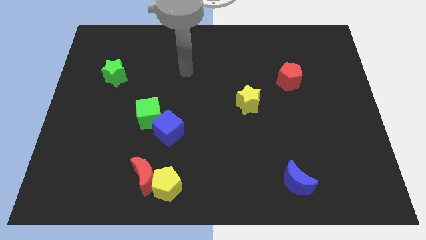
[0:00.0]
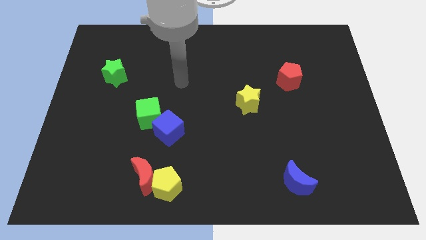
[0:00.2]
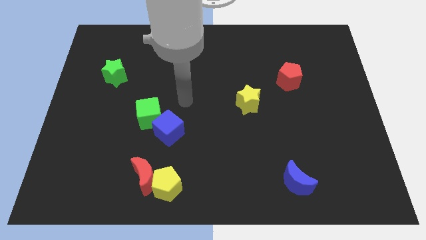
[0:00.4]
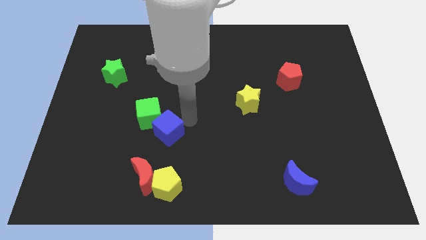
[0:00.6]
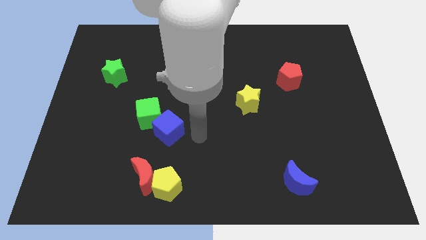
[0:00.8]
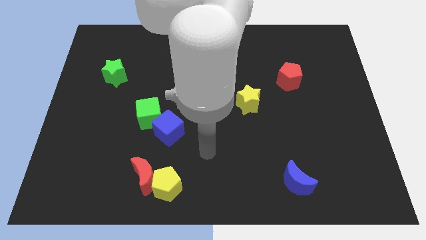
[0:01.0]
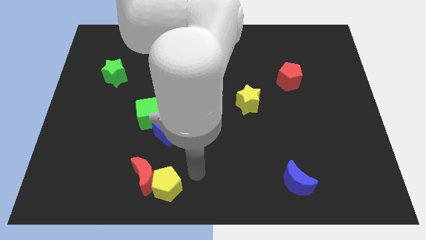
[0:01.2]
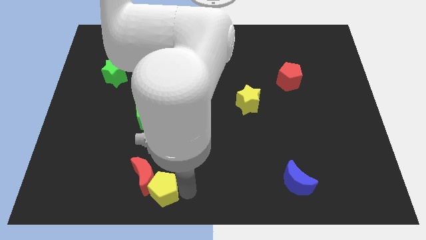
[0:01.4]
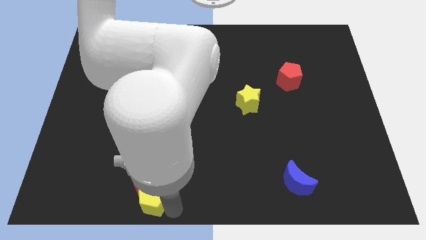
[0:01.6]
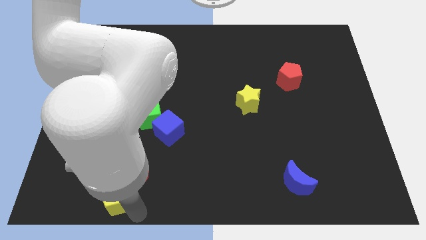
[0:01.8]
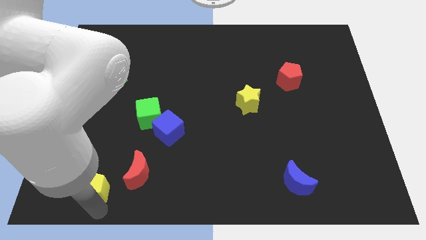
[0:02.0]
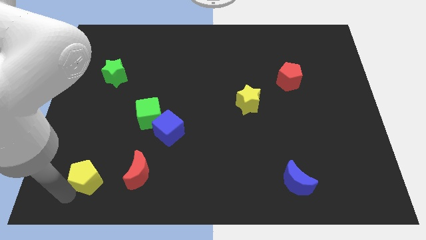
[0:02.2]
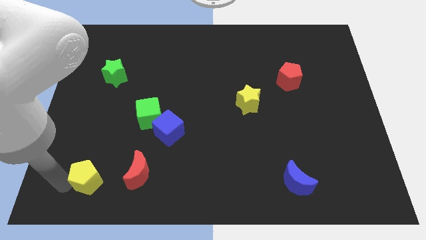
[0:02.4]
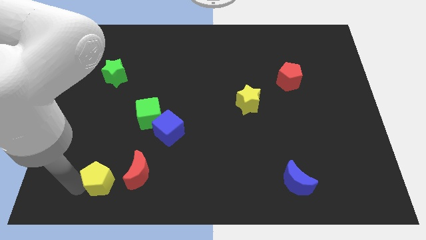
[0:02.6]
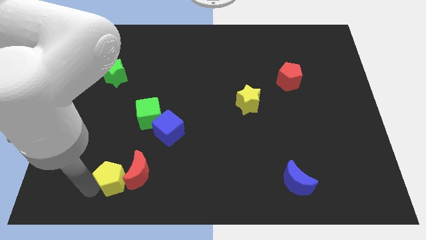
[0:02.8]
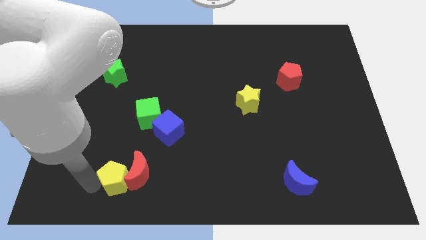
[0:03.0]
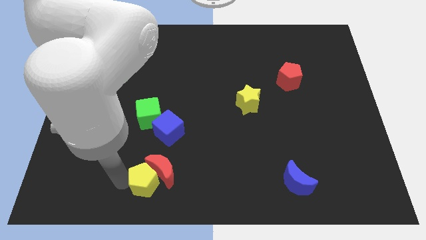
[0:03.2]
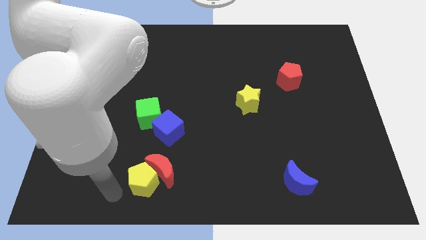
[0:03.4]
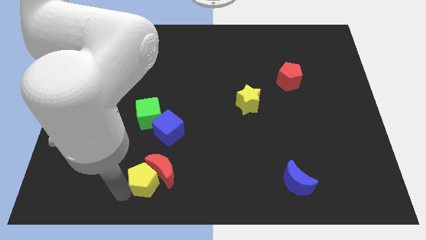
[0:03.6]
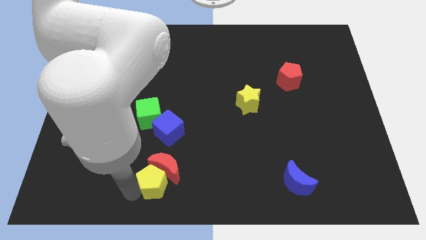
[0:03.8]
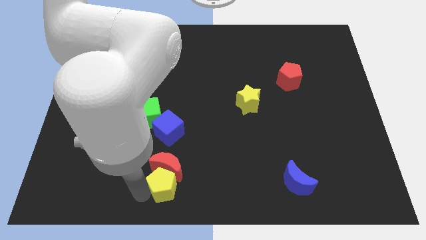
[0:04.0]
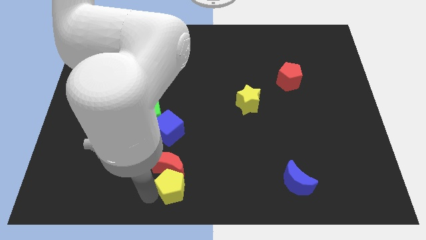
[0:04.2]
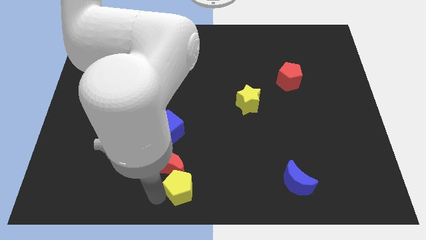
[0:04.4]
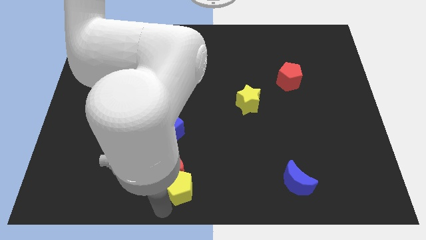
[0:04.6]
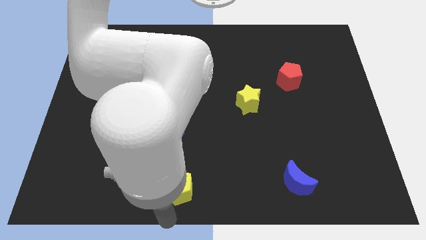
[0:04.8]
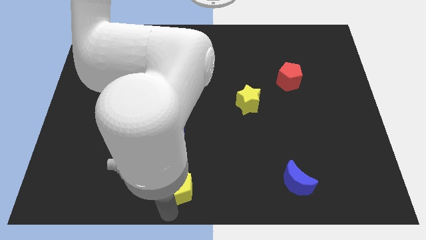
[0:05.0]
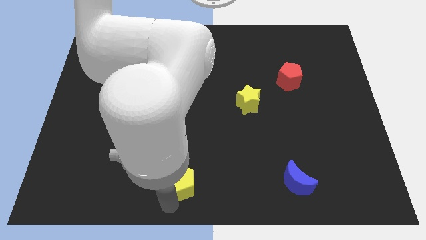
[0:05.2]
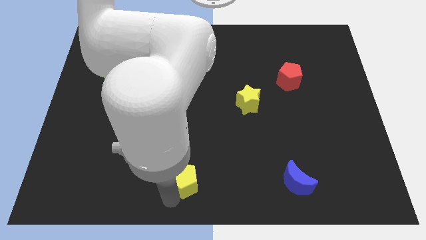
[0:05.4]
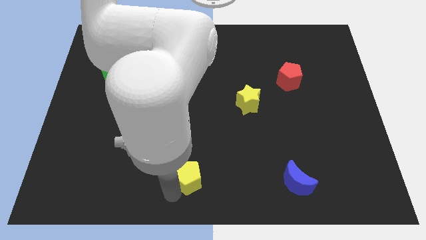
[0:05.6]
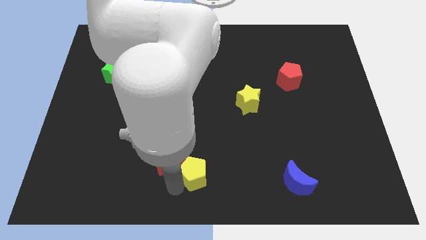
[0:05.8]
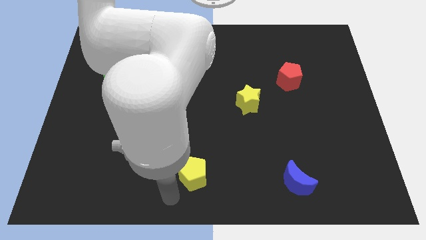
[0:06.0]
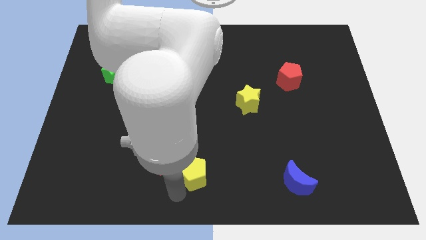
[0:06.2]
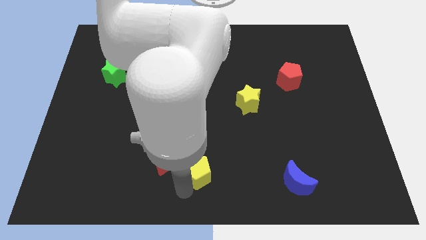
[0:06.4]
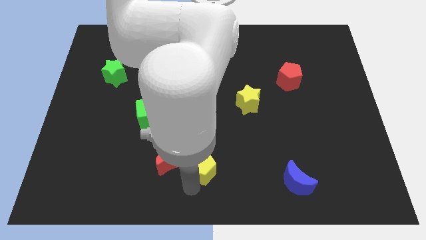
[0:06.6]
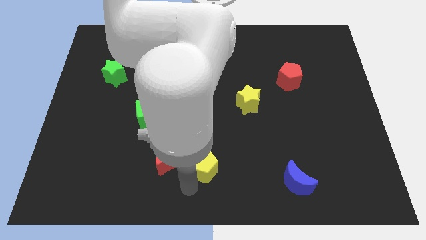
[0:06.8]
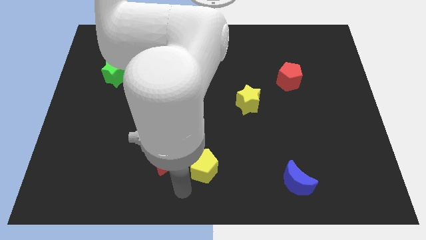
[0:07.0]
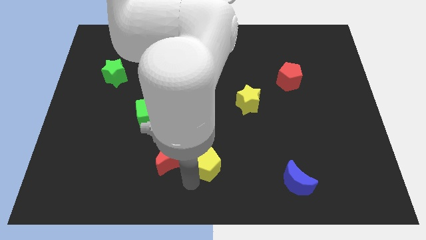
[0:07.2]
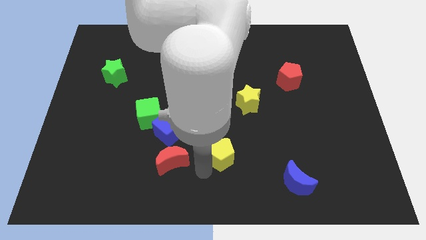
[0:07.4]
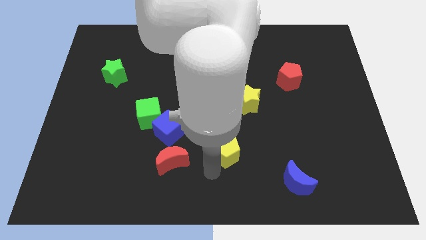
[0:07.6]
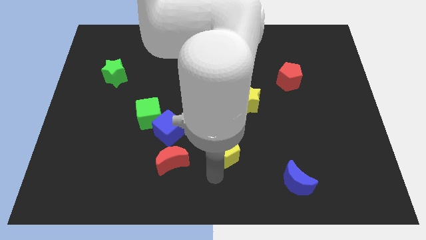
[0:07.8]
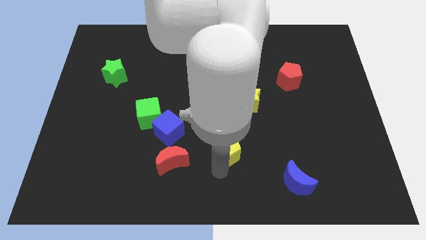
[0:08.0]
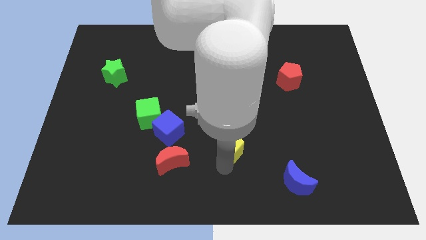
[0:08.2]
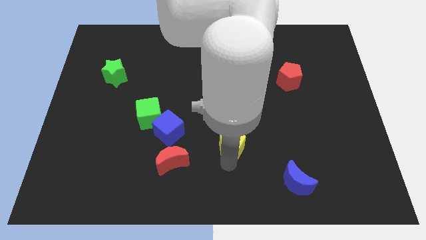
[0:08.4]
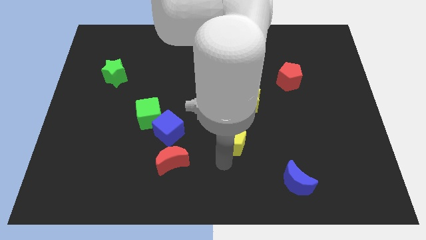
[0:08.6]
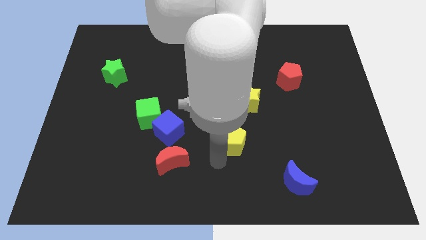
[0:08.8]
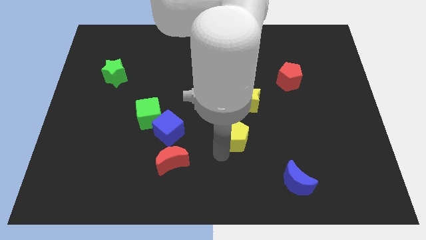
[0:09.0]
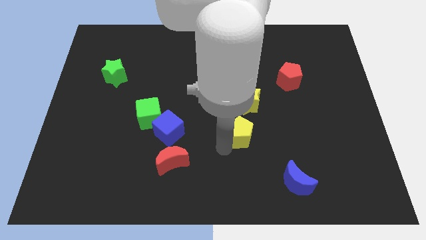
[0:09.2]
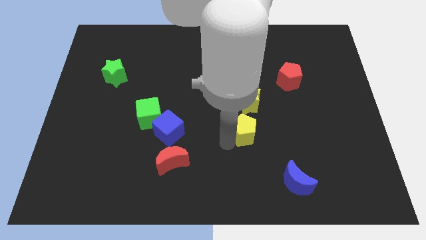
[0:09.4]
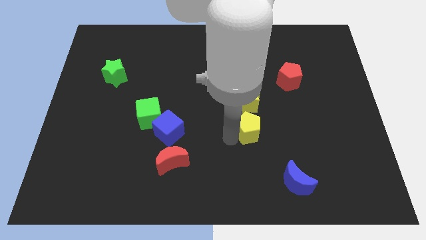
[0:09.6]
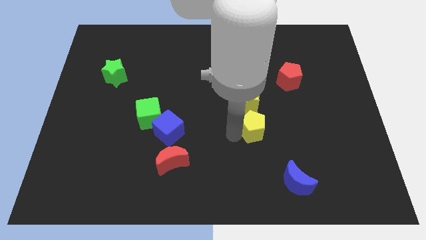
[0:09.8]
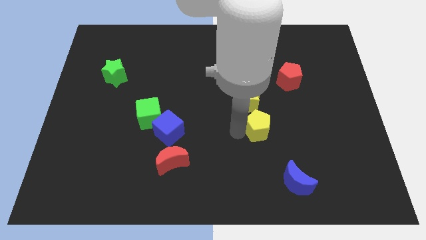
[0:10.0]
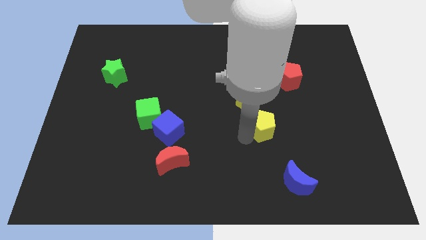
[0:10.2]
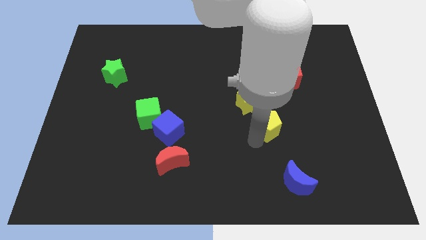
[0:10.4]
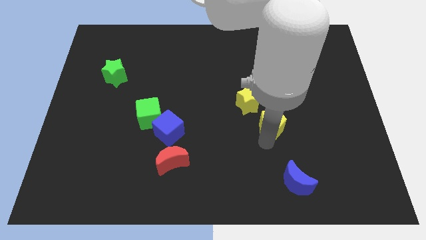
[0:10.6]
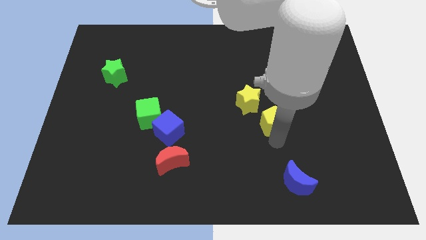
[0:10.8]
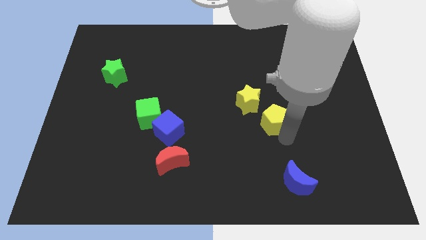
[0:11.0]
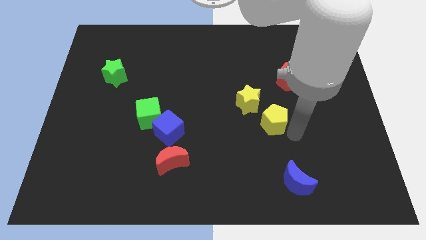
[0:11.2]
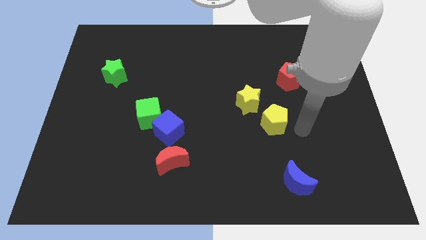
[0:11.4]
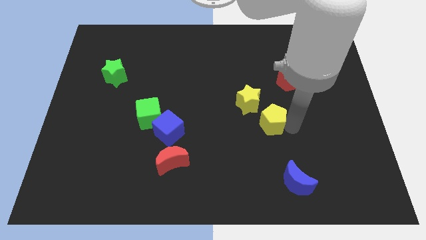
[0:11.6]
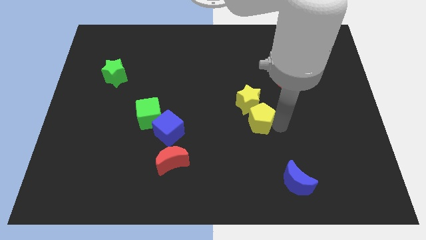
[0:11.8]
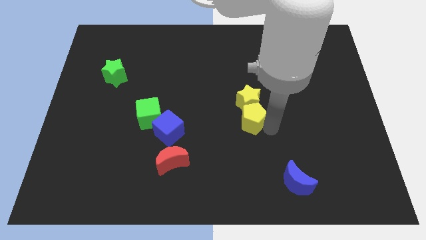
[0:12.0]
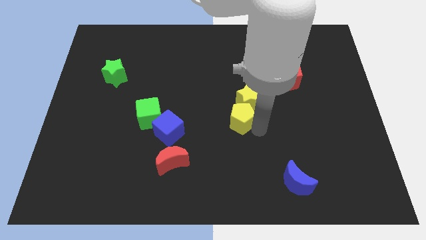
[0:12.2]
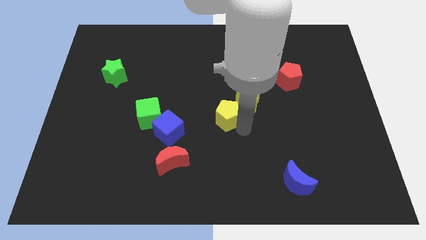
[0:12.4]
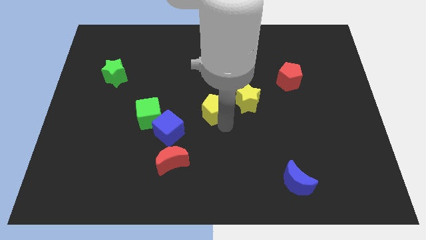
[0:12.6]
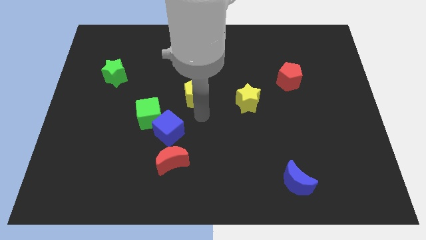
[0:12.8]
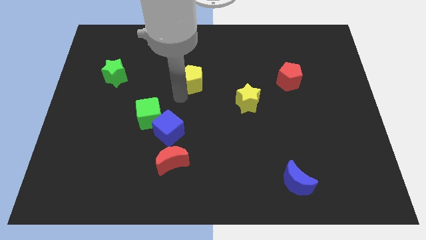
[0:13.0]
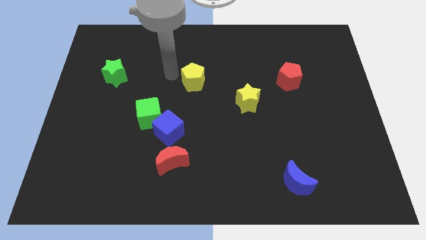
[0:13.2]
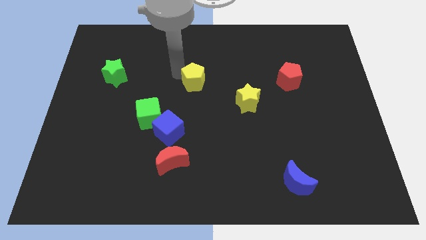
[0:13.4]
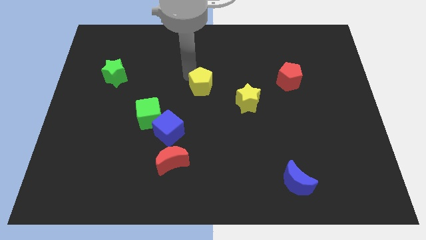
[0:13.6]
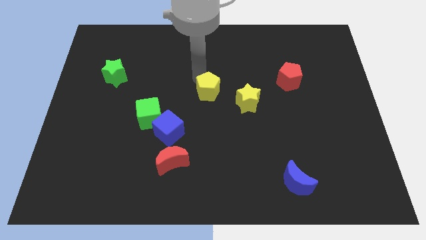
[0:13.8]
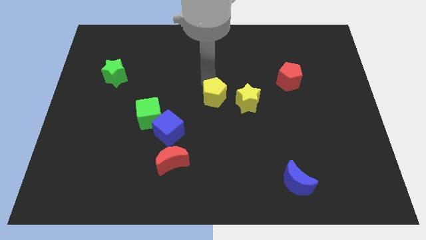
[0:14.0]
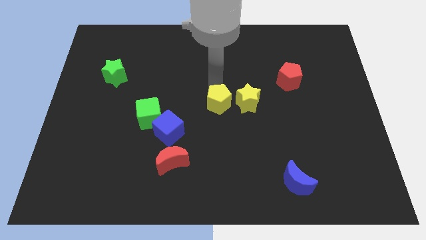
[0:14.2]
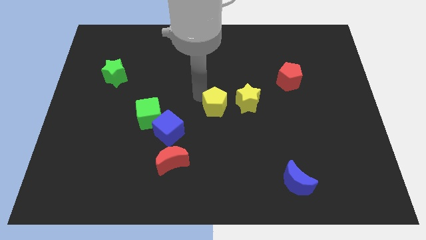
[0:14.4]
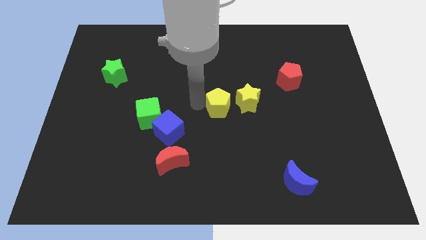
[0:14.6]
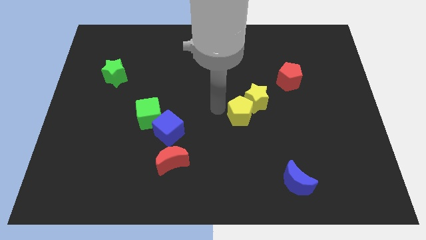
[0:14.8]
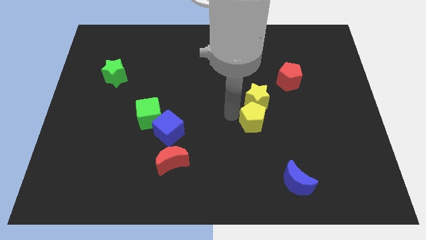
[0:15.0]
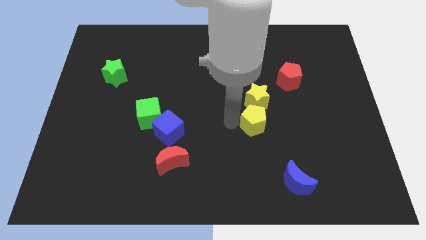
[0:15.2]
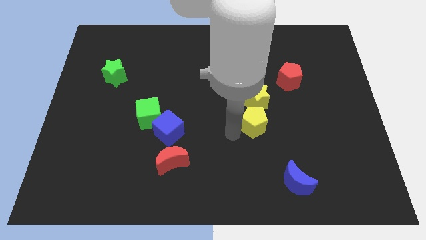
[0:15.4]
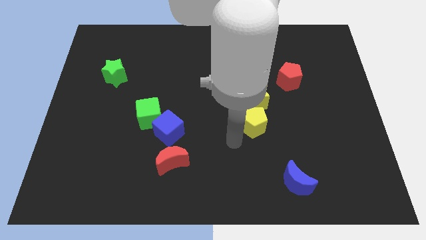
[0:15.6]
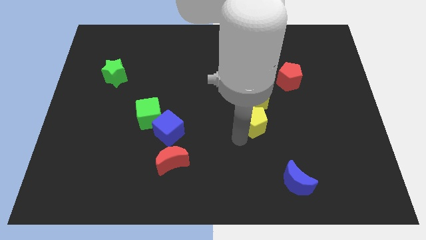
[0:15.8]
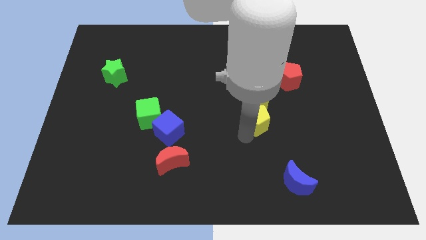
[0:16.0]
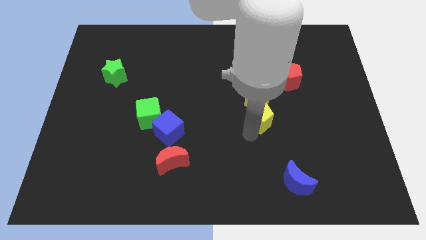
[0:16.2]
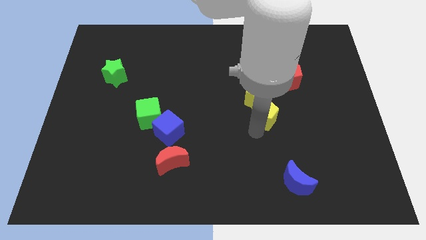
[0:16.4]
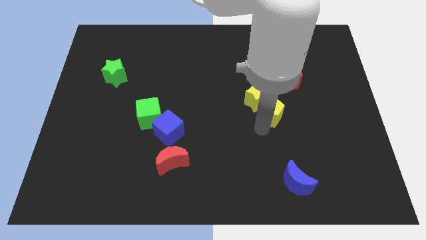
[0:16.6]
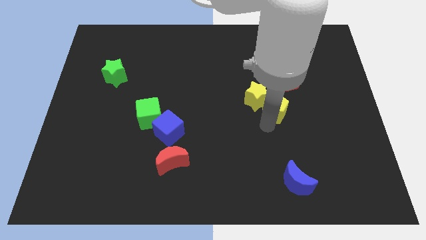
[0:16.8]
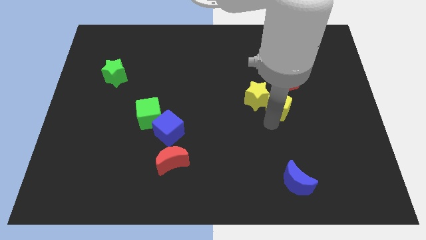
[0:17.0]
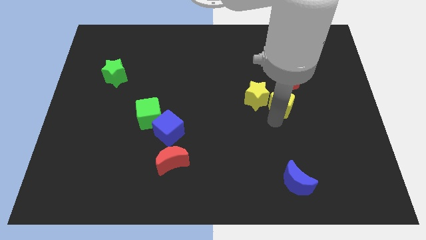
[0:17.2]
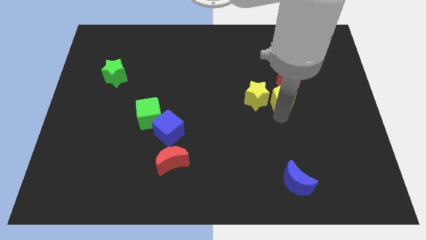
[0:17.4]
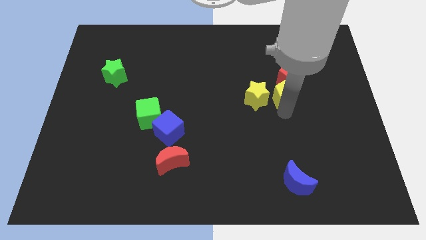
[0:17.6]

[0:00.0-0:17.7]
slide the yellow pentagon close to the red pentagon
